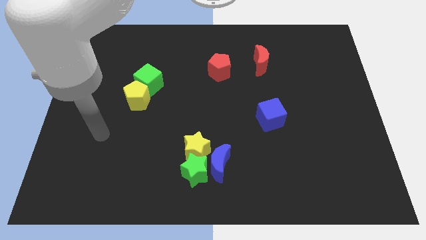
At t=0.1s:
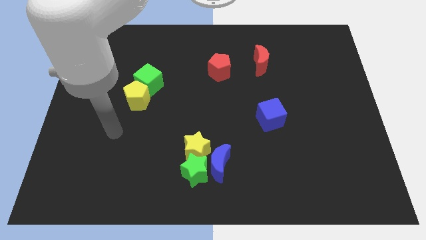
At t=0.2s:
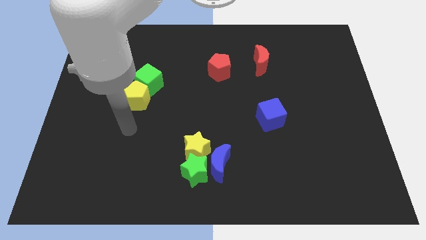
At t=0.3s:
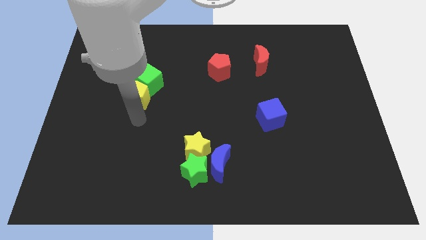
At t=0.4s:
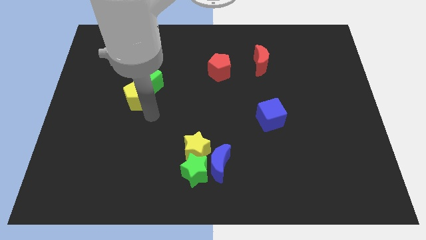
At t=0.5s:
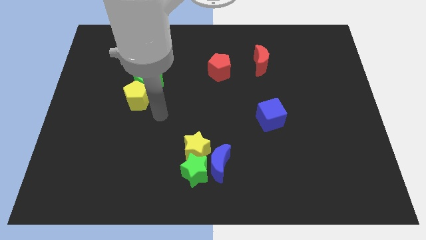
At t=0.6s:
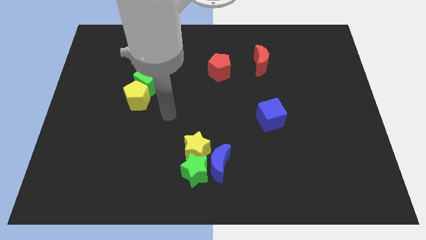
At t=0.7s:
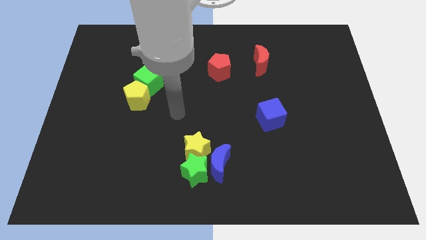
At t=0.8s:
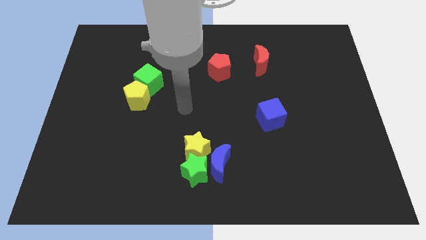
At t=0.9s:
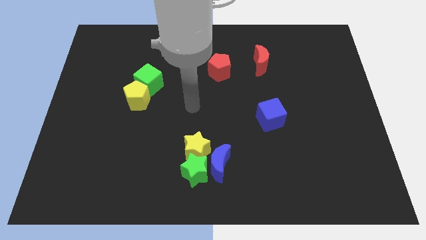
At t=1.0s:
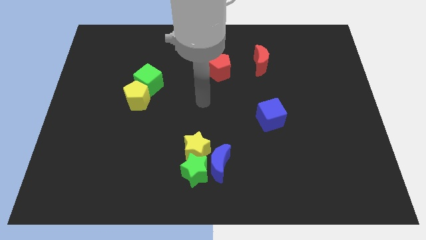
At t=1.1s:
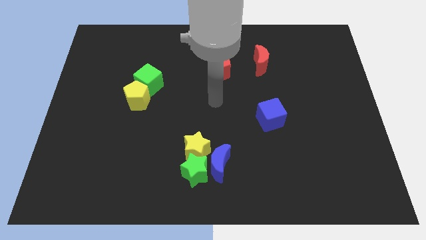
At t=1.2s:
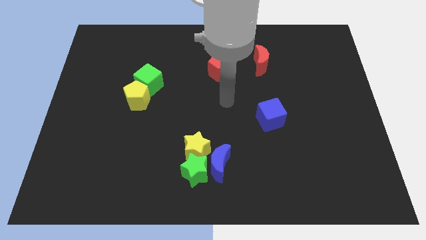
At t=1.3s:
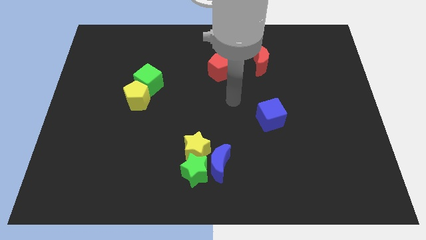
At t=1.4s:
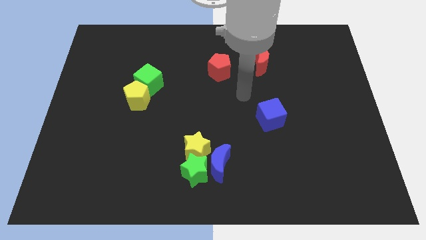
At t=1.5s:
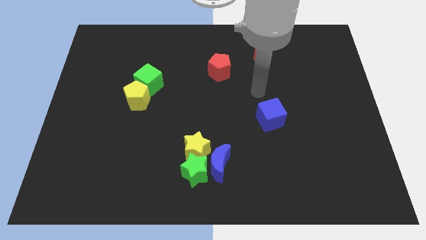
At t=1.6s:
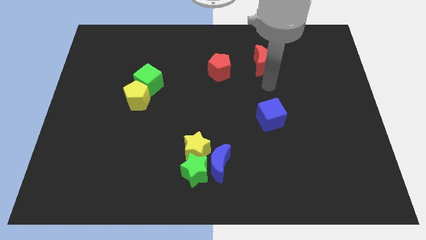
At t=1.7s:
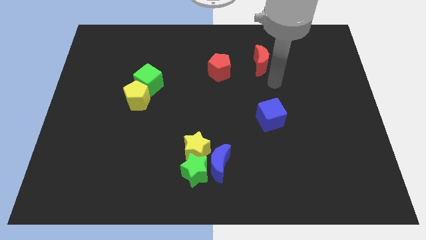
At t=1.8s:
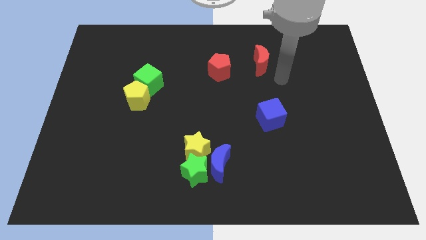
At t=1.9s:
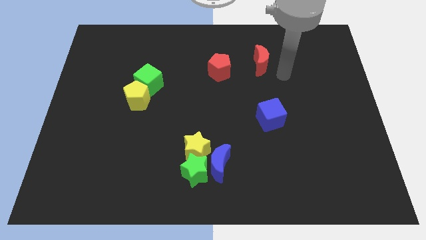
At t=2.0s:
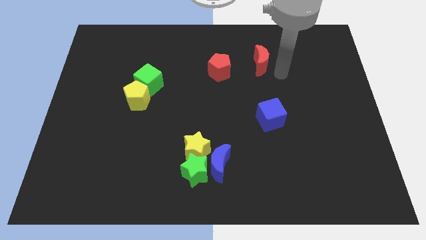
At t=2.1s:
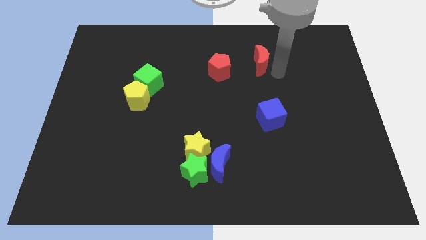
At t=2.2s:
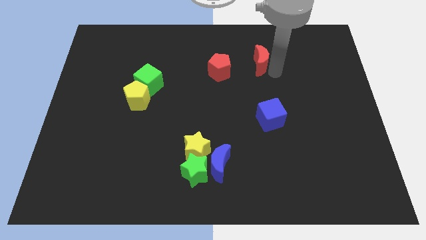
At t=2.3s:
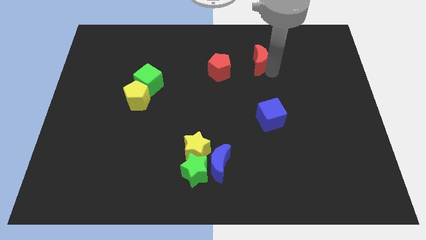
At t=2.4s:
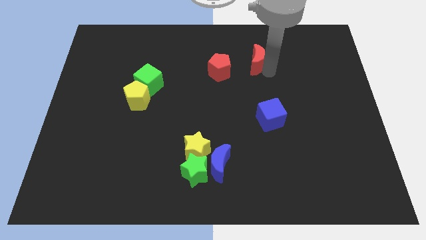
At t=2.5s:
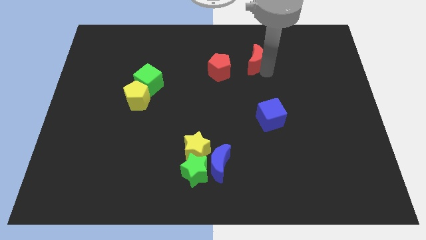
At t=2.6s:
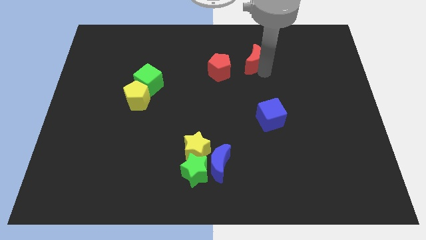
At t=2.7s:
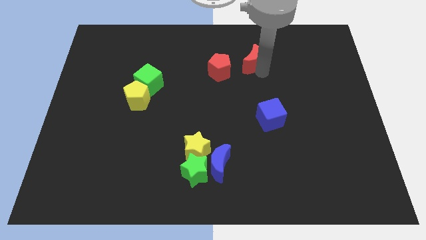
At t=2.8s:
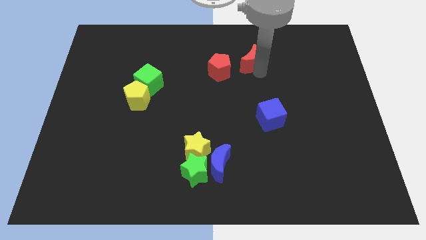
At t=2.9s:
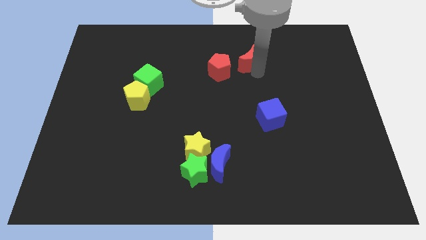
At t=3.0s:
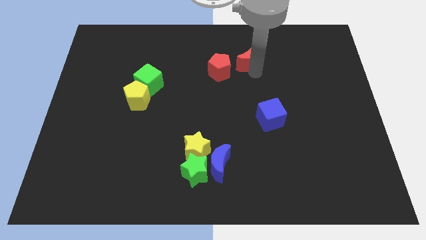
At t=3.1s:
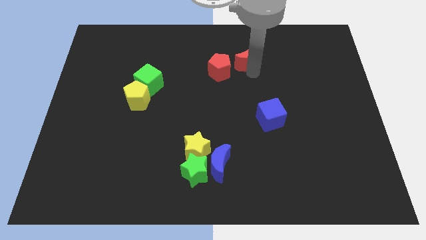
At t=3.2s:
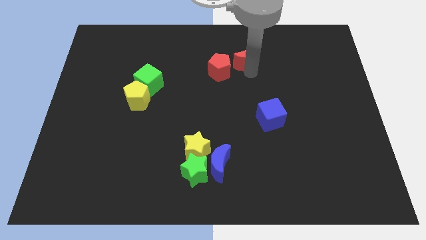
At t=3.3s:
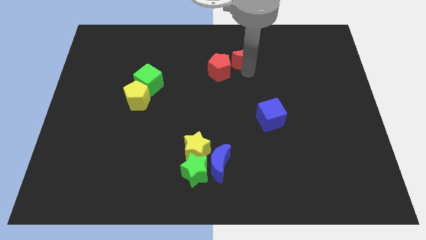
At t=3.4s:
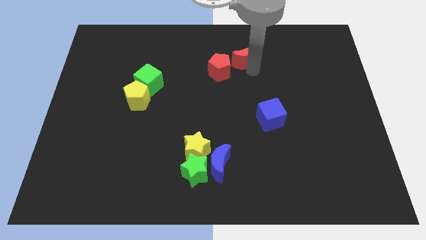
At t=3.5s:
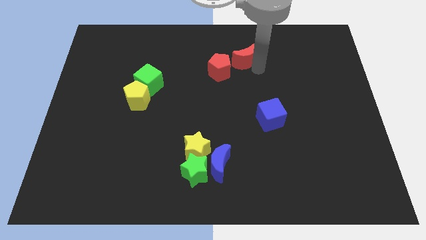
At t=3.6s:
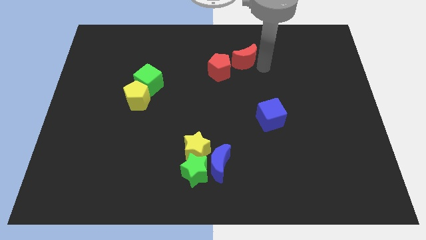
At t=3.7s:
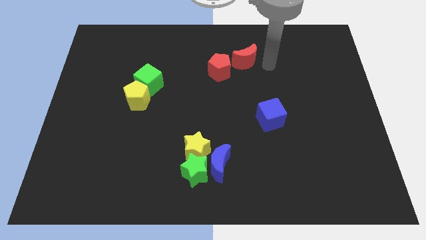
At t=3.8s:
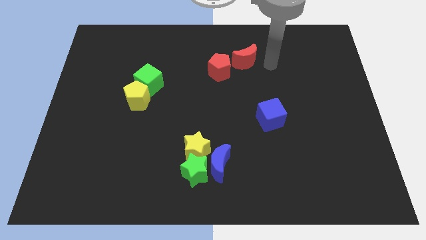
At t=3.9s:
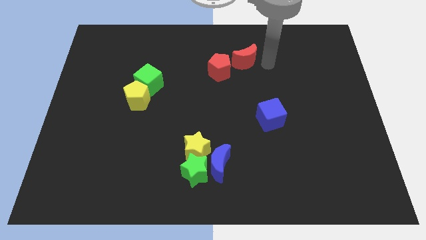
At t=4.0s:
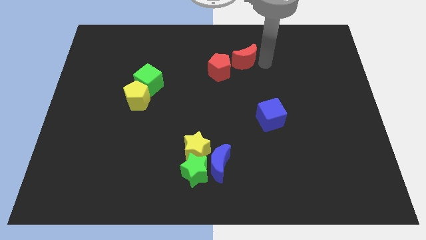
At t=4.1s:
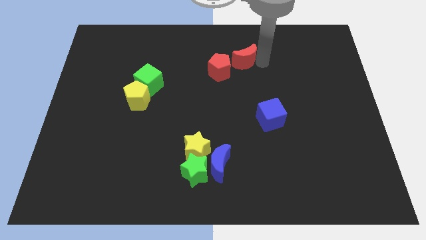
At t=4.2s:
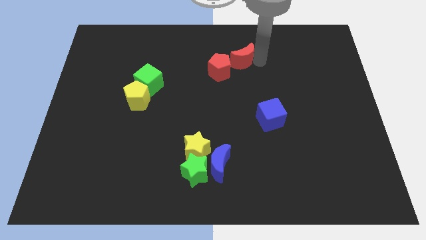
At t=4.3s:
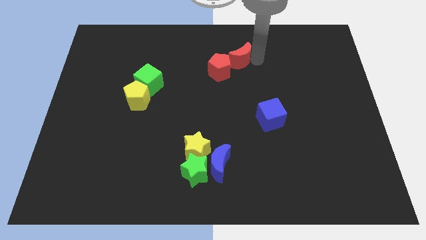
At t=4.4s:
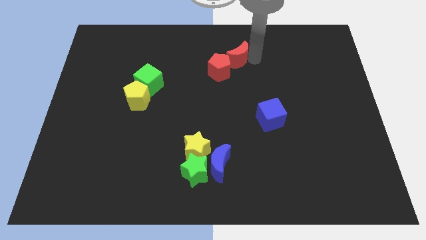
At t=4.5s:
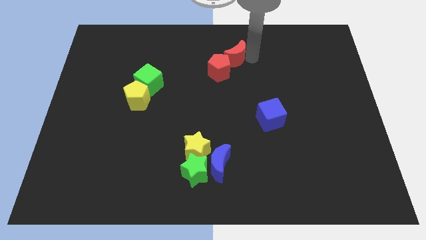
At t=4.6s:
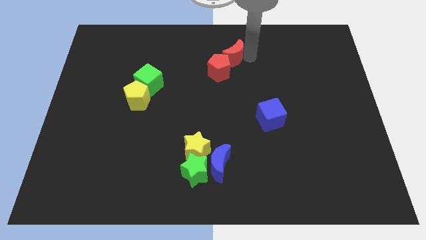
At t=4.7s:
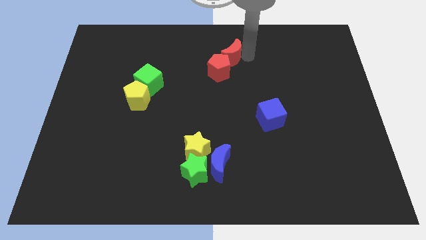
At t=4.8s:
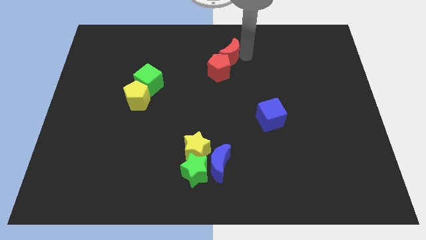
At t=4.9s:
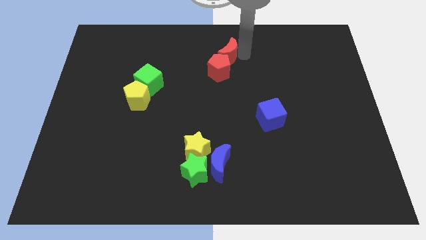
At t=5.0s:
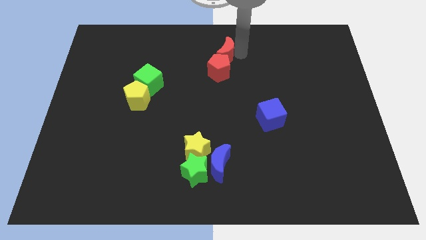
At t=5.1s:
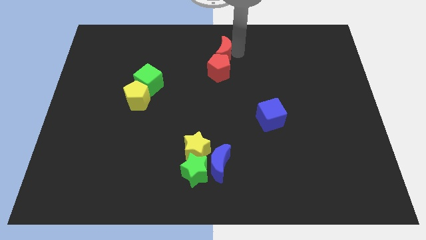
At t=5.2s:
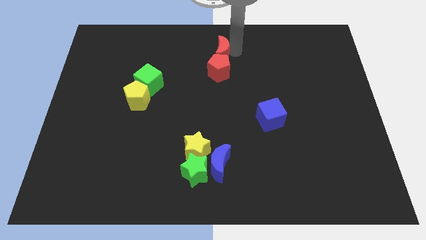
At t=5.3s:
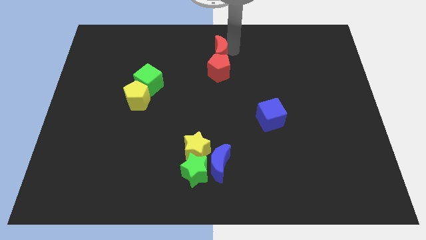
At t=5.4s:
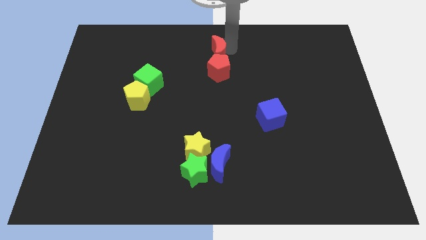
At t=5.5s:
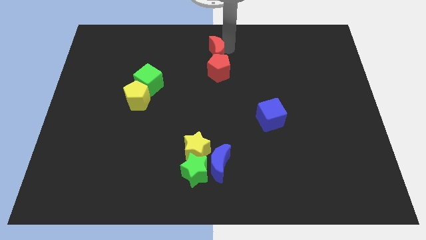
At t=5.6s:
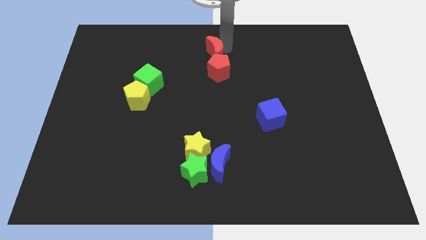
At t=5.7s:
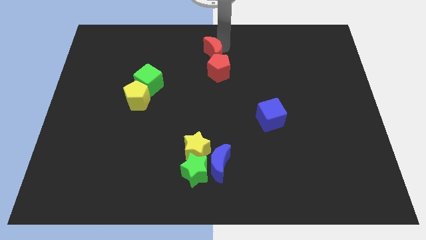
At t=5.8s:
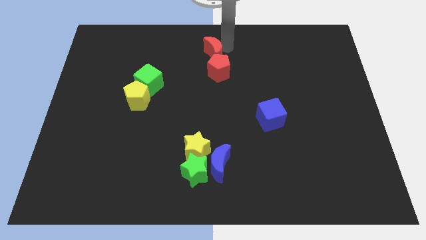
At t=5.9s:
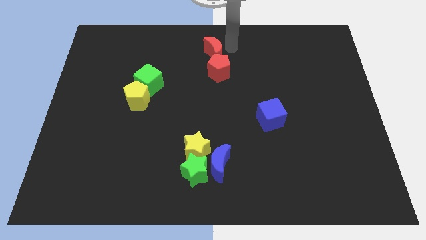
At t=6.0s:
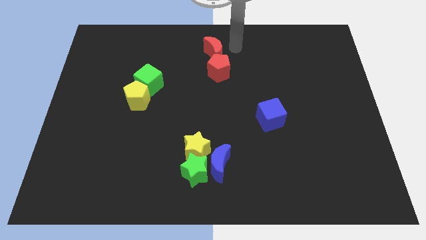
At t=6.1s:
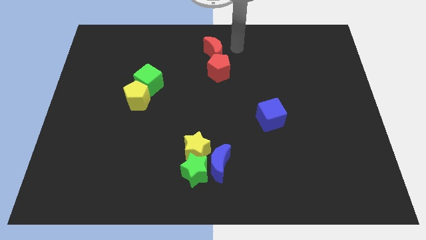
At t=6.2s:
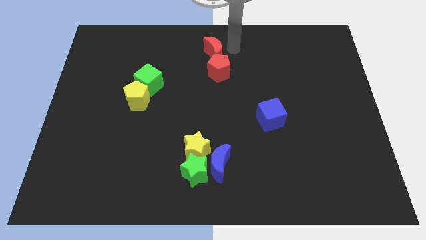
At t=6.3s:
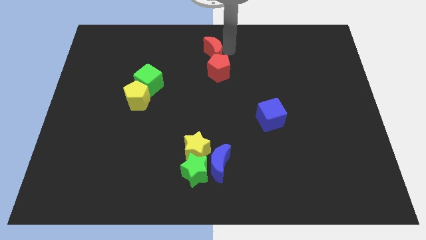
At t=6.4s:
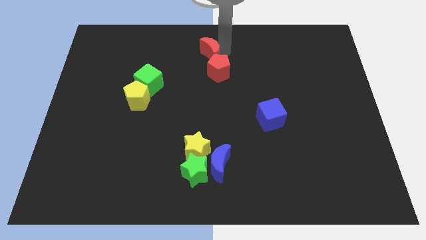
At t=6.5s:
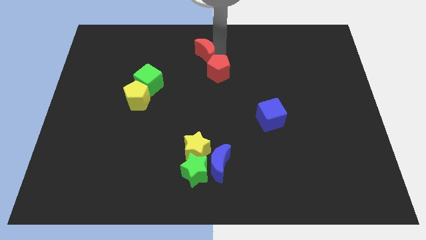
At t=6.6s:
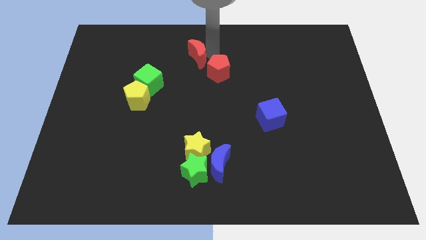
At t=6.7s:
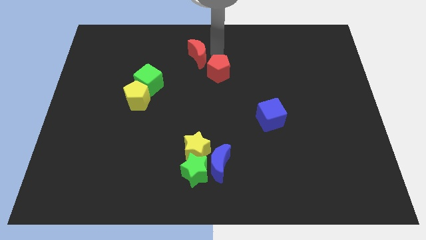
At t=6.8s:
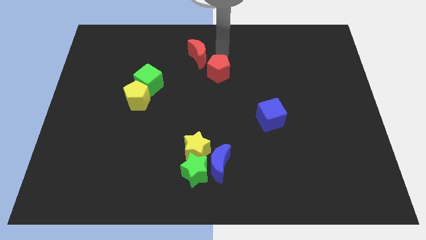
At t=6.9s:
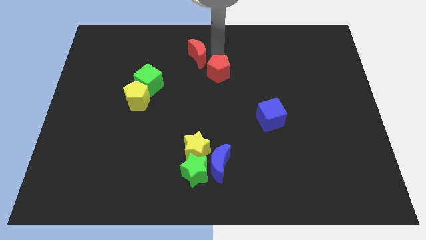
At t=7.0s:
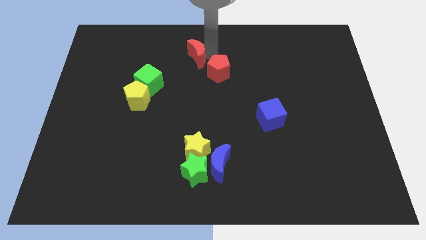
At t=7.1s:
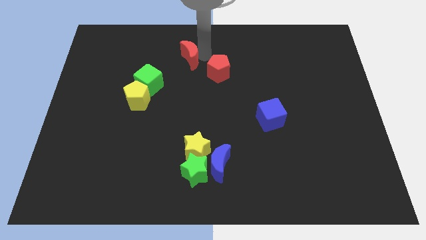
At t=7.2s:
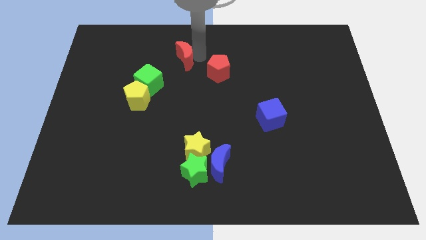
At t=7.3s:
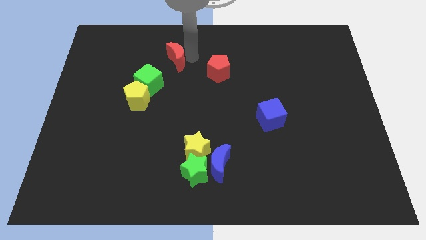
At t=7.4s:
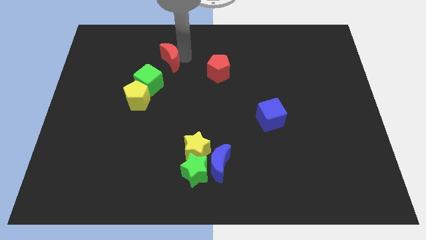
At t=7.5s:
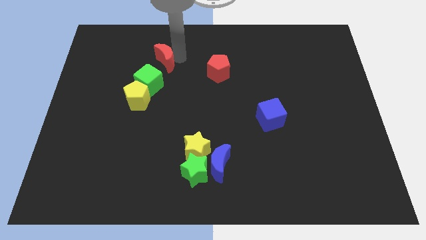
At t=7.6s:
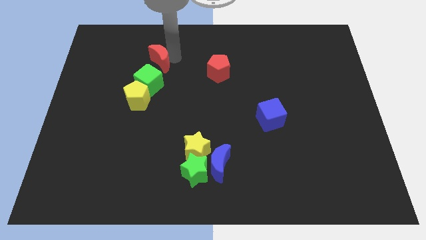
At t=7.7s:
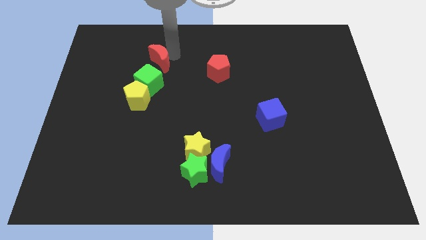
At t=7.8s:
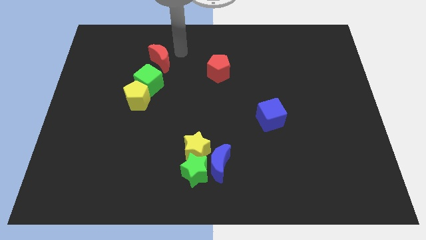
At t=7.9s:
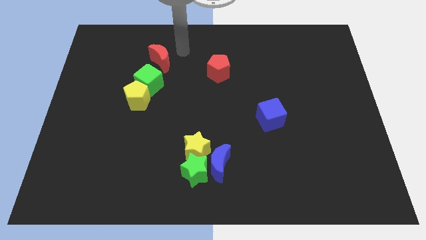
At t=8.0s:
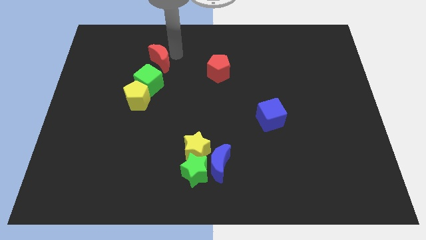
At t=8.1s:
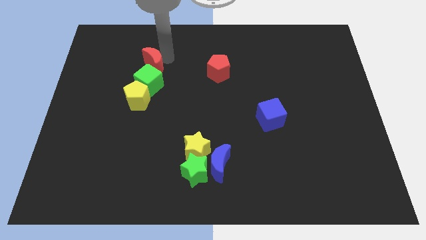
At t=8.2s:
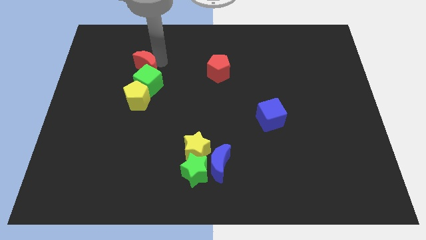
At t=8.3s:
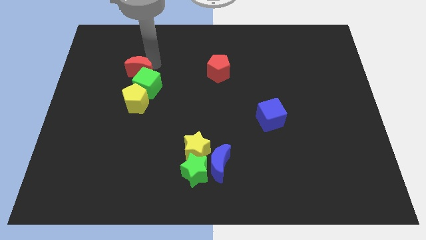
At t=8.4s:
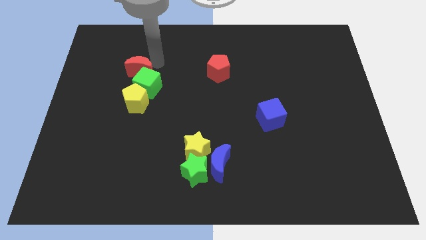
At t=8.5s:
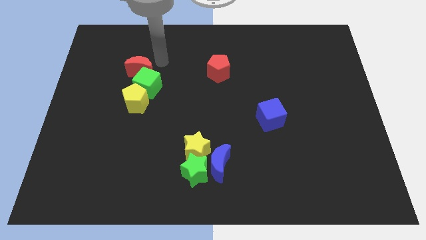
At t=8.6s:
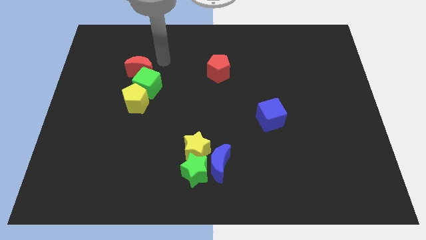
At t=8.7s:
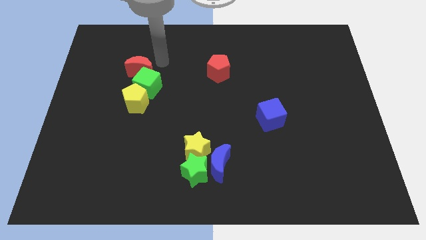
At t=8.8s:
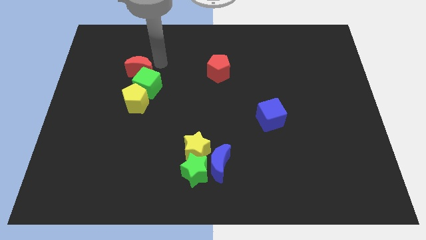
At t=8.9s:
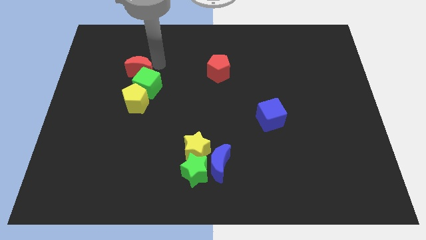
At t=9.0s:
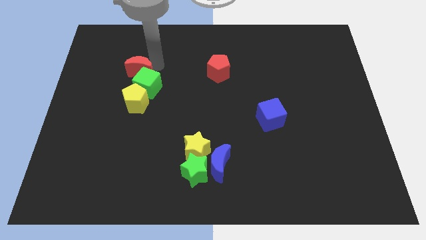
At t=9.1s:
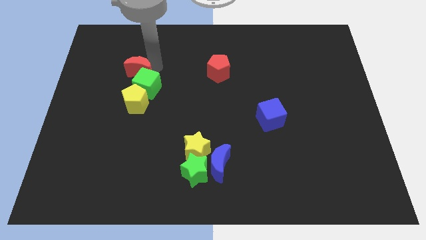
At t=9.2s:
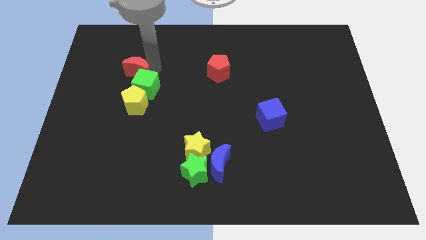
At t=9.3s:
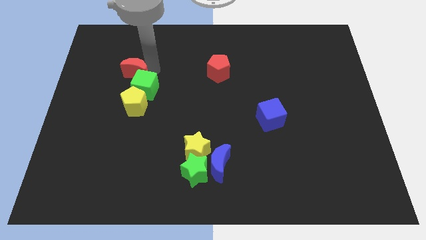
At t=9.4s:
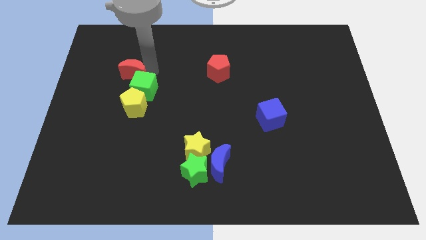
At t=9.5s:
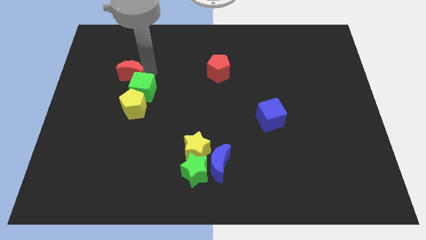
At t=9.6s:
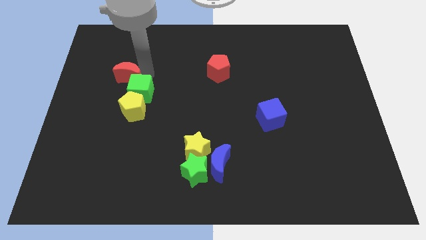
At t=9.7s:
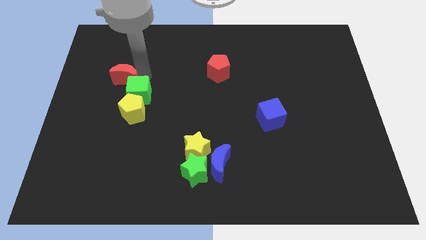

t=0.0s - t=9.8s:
put the red moon just left of the green cube
